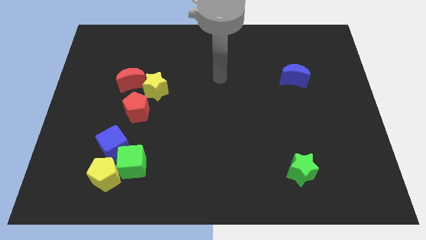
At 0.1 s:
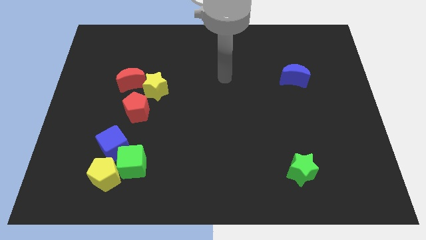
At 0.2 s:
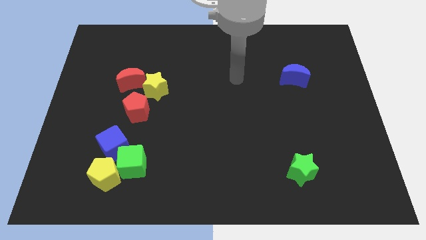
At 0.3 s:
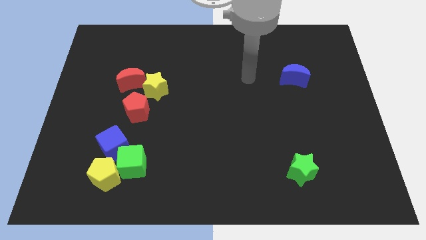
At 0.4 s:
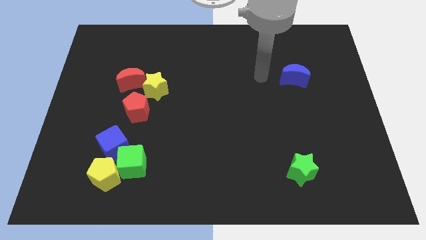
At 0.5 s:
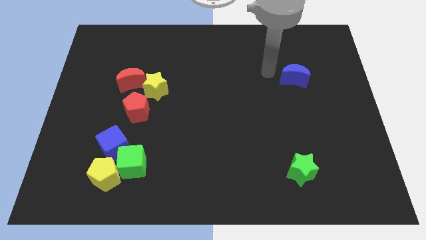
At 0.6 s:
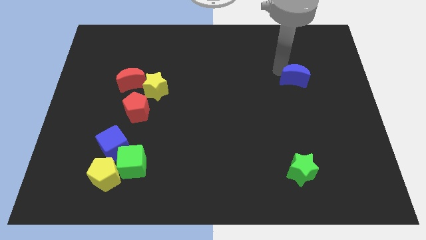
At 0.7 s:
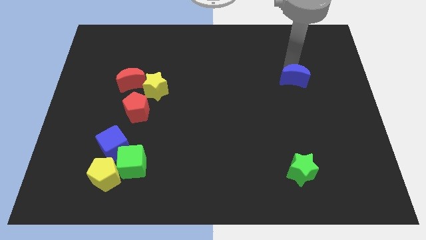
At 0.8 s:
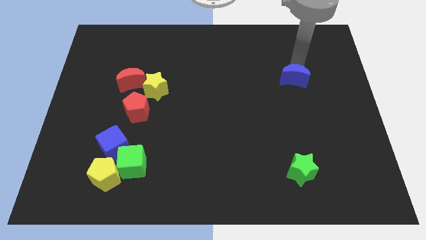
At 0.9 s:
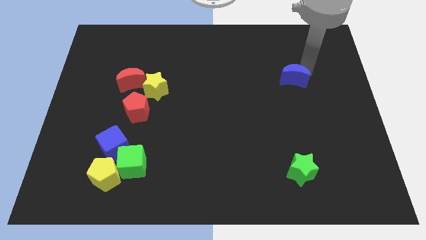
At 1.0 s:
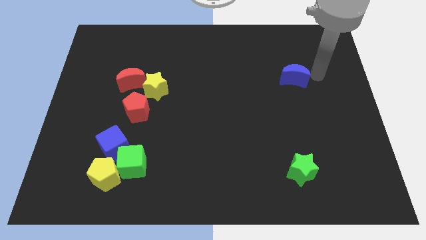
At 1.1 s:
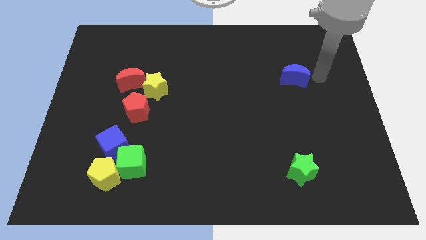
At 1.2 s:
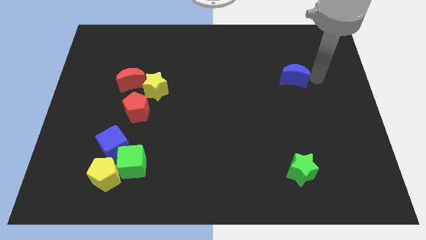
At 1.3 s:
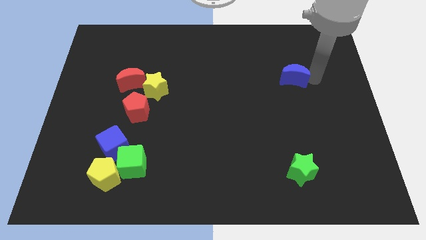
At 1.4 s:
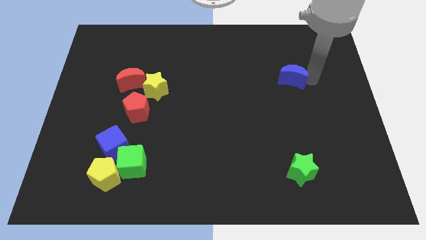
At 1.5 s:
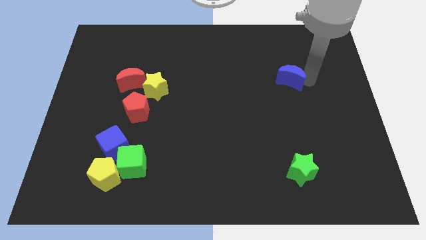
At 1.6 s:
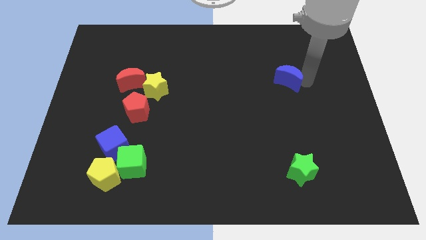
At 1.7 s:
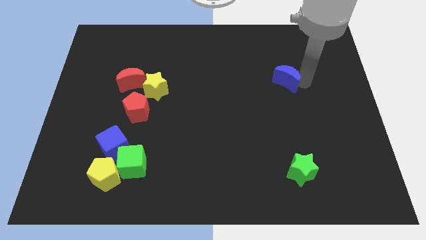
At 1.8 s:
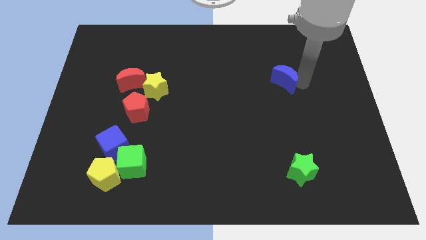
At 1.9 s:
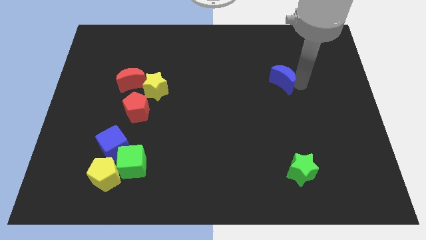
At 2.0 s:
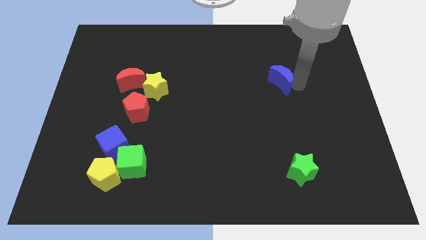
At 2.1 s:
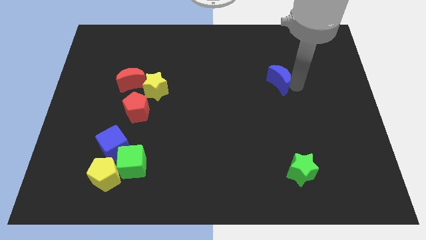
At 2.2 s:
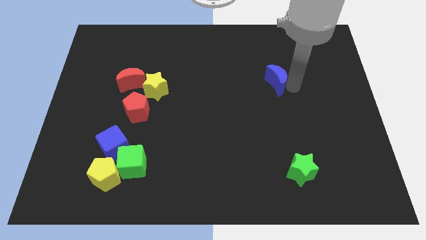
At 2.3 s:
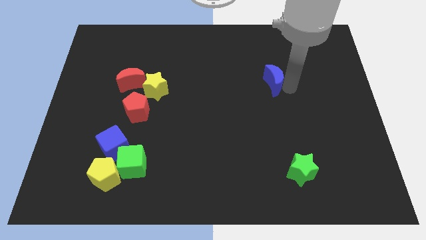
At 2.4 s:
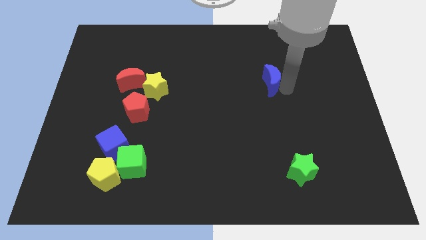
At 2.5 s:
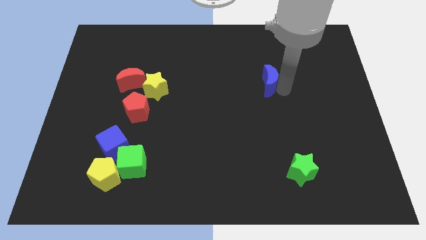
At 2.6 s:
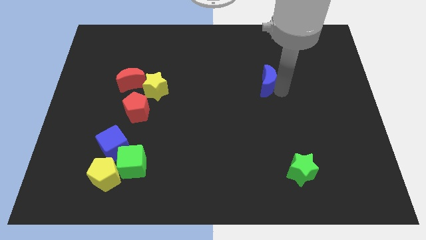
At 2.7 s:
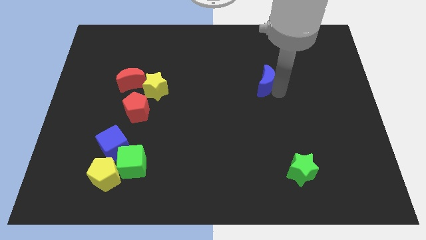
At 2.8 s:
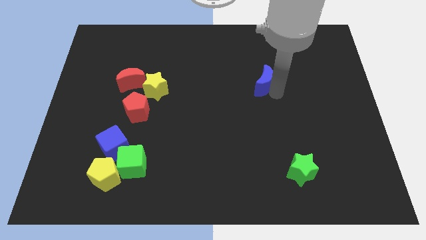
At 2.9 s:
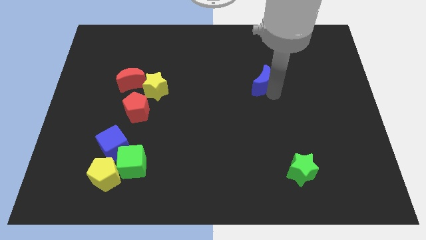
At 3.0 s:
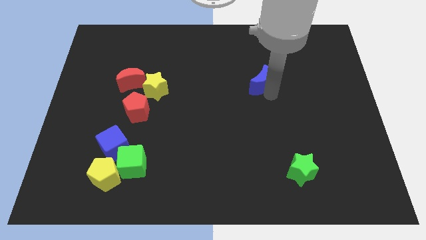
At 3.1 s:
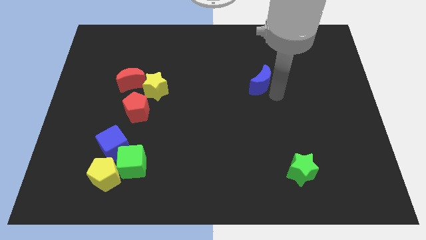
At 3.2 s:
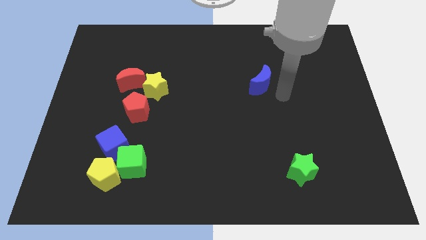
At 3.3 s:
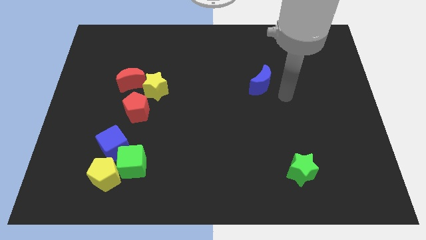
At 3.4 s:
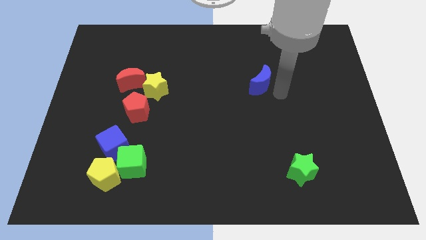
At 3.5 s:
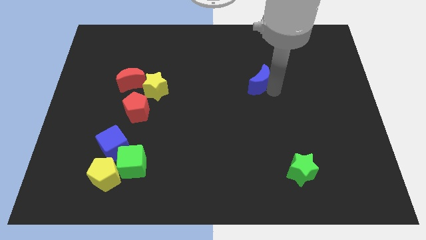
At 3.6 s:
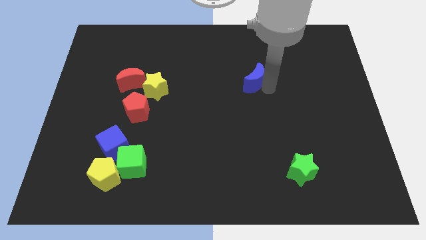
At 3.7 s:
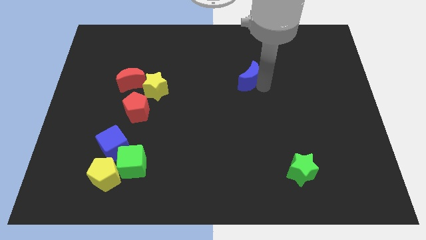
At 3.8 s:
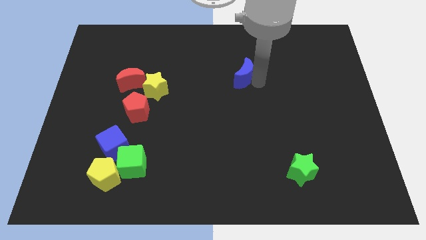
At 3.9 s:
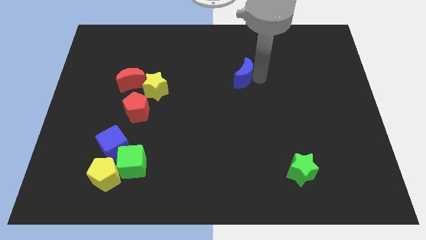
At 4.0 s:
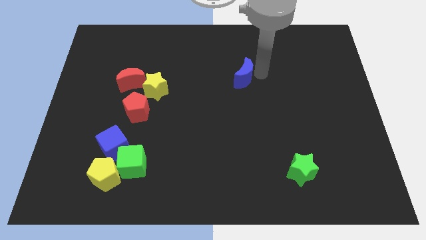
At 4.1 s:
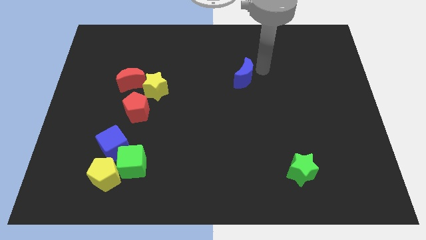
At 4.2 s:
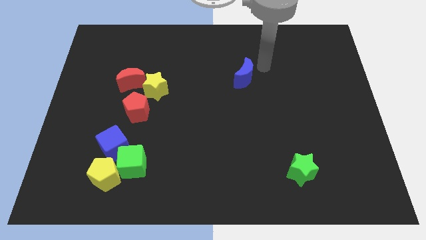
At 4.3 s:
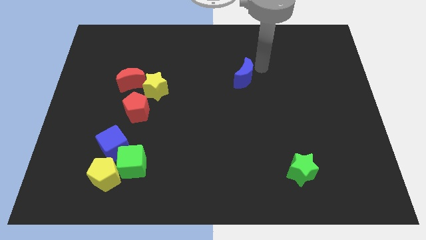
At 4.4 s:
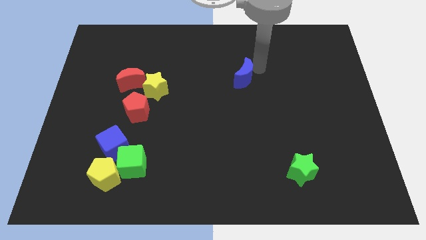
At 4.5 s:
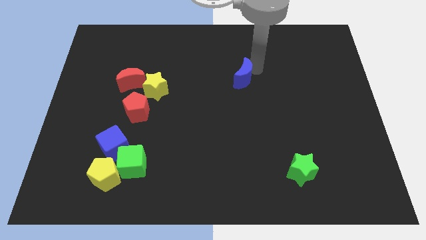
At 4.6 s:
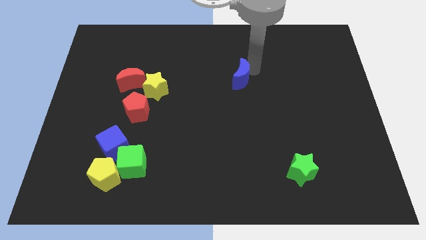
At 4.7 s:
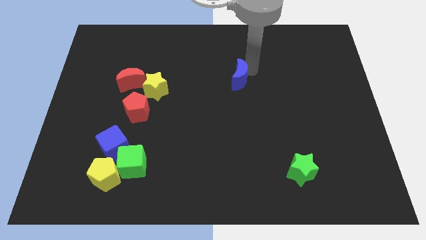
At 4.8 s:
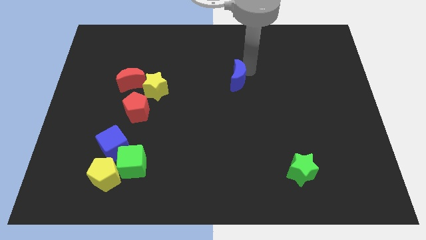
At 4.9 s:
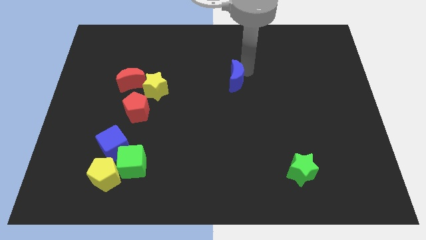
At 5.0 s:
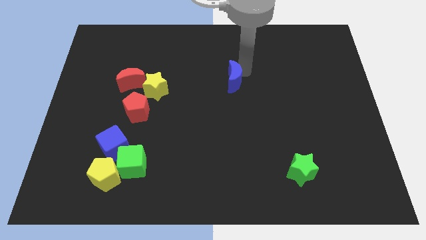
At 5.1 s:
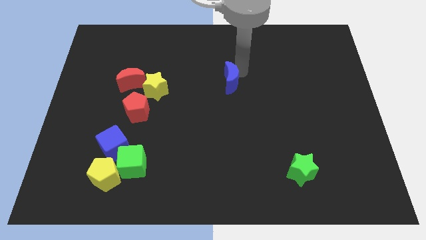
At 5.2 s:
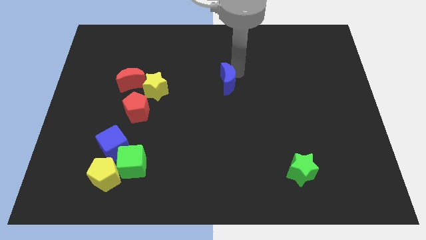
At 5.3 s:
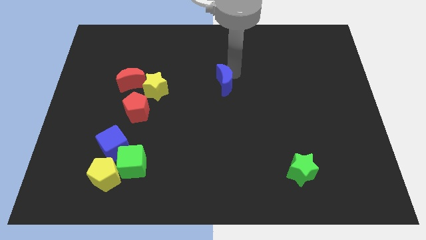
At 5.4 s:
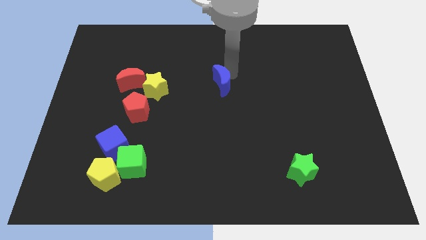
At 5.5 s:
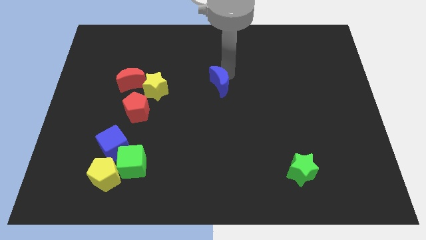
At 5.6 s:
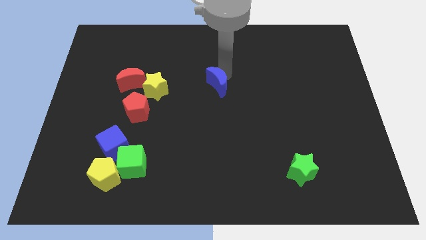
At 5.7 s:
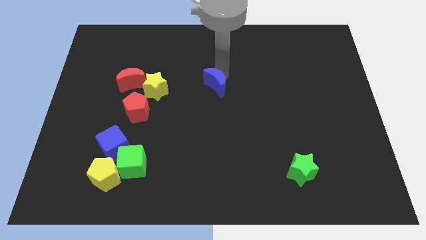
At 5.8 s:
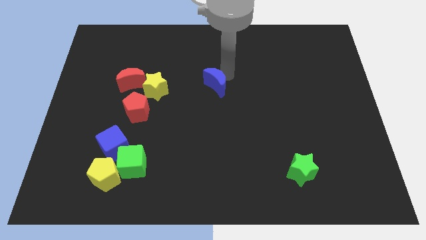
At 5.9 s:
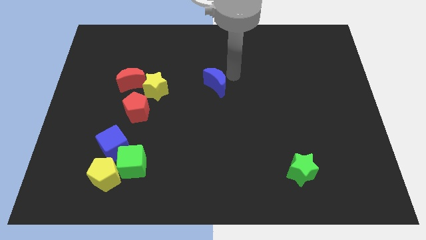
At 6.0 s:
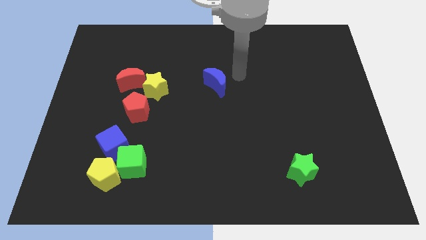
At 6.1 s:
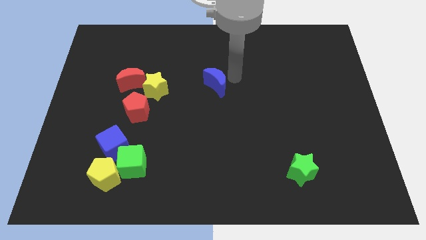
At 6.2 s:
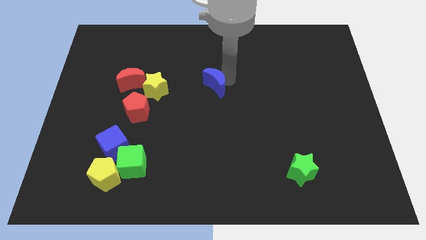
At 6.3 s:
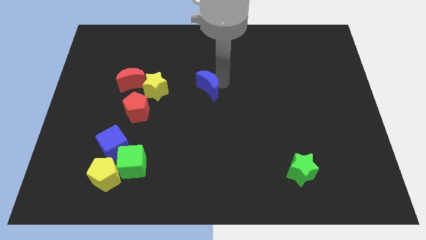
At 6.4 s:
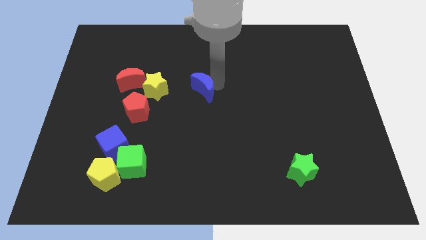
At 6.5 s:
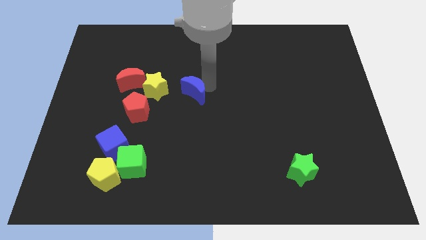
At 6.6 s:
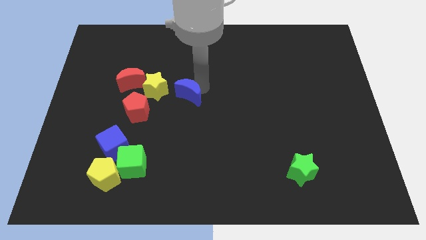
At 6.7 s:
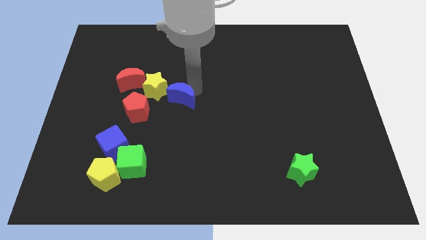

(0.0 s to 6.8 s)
push the blue moon to the right of the red pentagon
